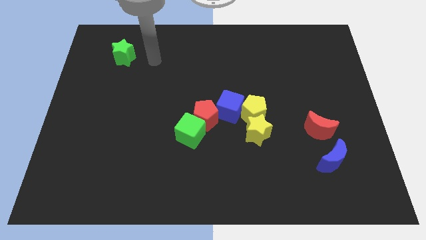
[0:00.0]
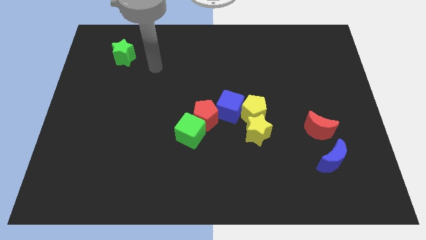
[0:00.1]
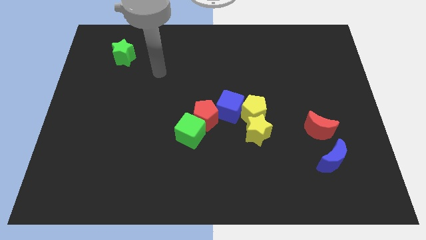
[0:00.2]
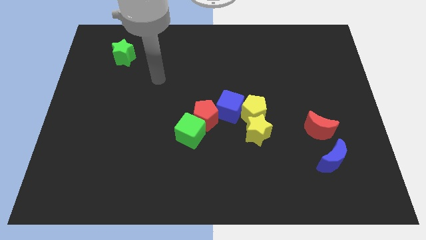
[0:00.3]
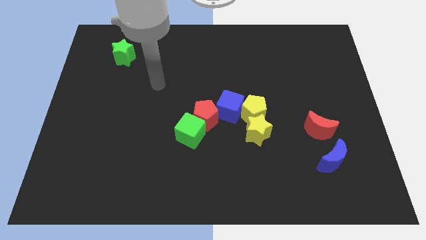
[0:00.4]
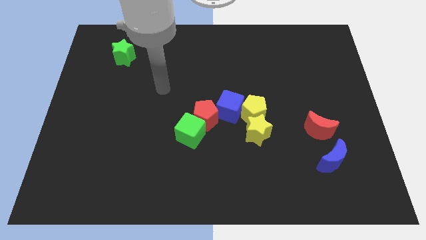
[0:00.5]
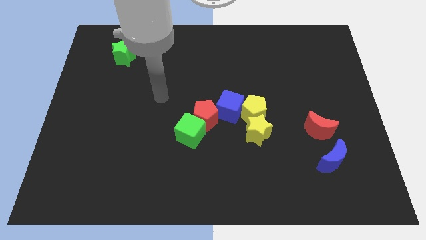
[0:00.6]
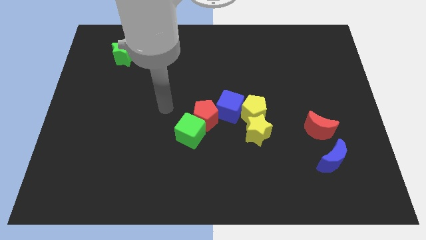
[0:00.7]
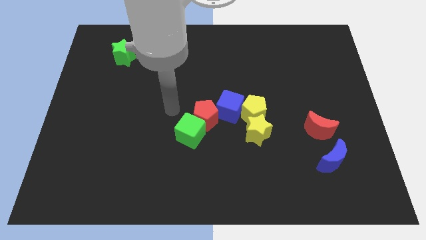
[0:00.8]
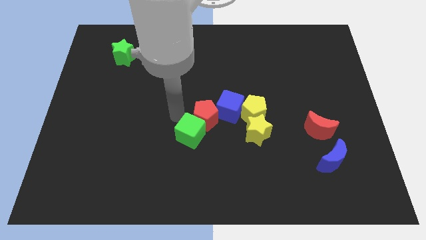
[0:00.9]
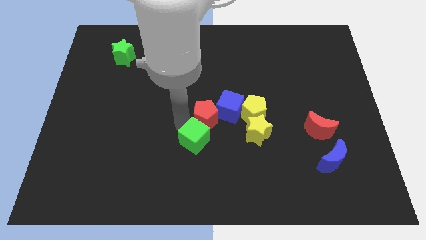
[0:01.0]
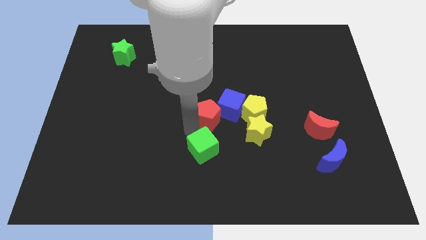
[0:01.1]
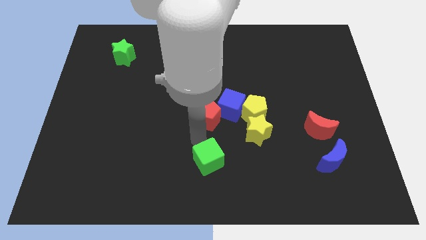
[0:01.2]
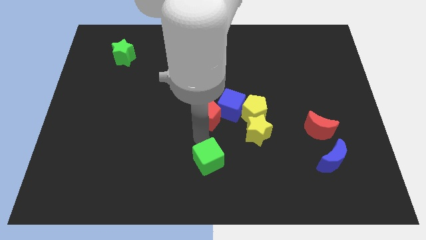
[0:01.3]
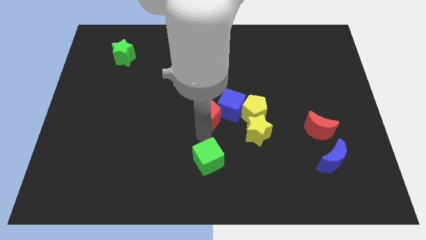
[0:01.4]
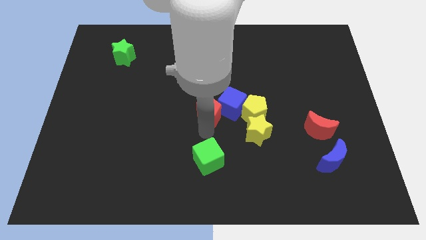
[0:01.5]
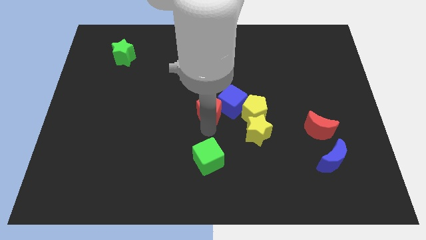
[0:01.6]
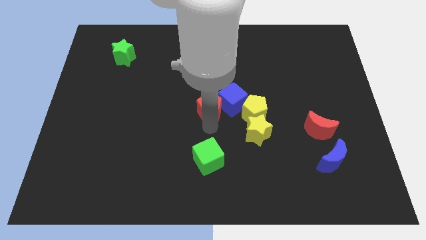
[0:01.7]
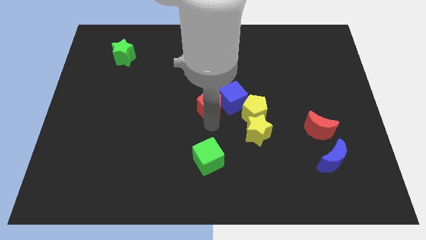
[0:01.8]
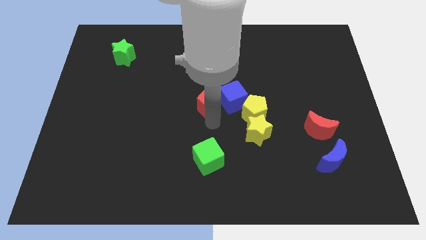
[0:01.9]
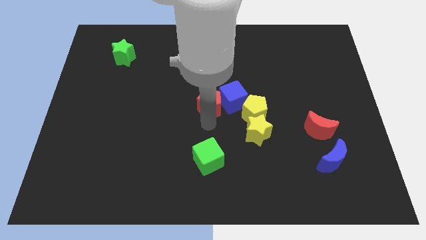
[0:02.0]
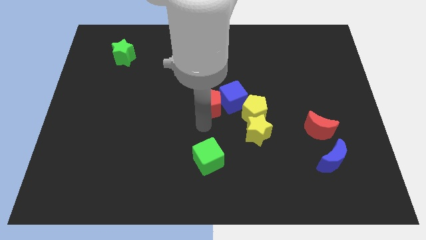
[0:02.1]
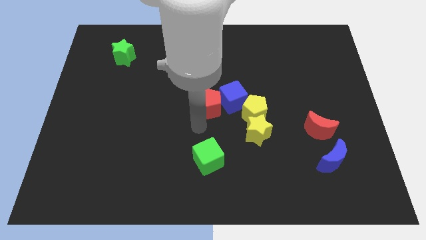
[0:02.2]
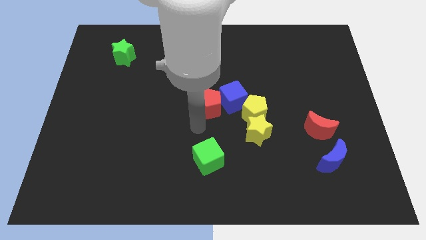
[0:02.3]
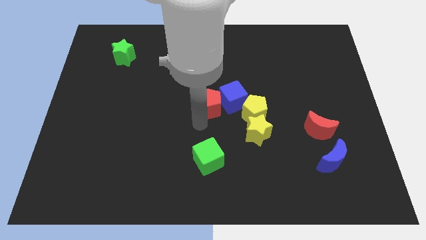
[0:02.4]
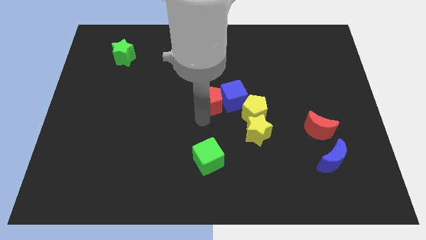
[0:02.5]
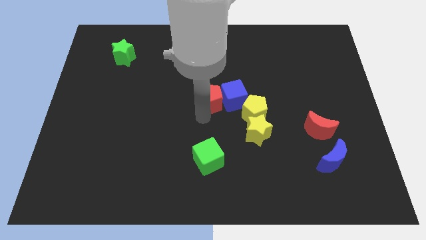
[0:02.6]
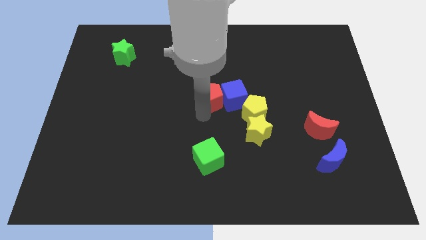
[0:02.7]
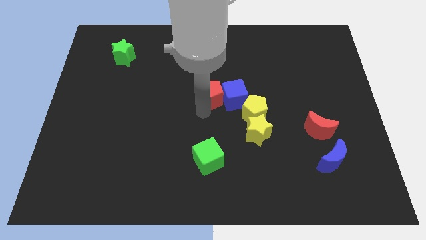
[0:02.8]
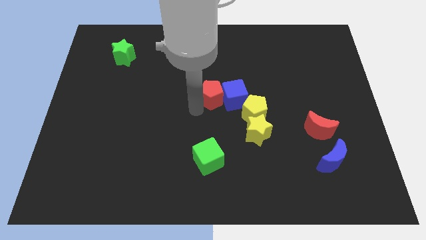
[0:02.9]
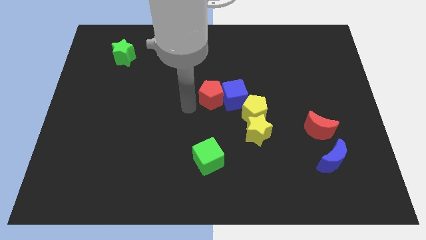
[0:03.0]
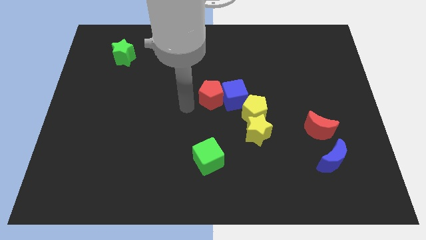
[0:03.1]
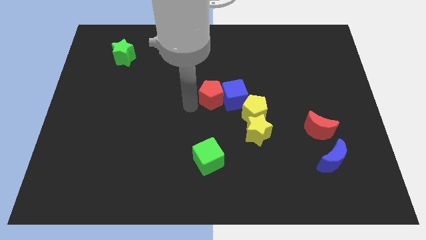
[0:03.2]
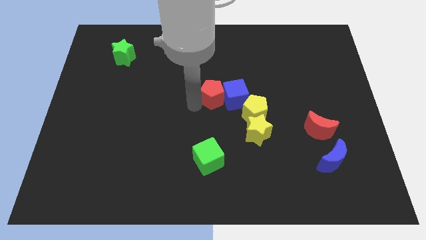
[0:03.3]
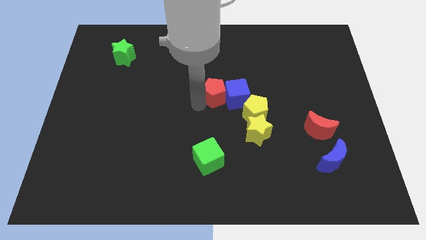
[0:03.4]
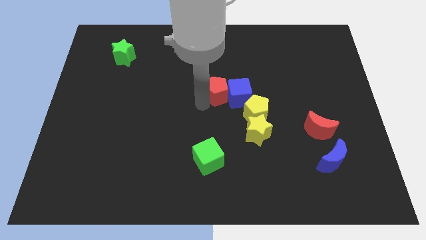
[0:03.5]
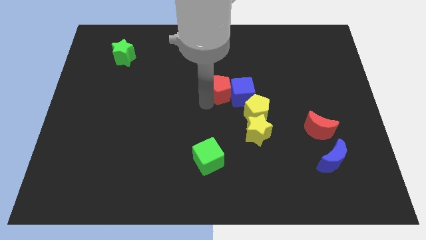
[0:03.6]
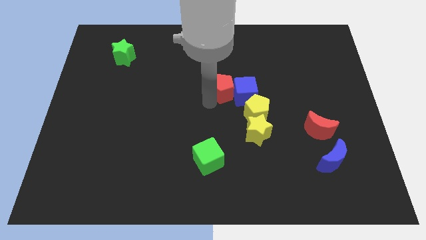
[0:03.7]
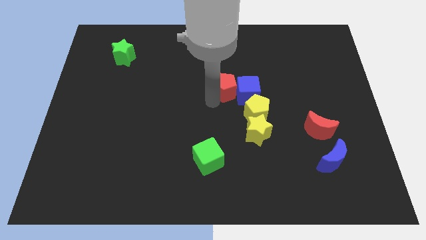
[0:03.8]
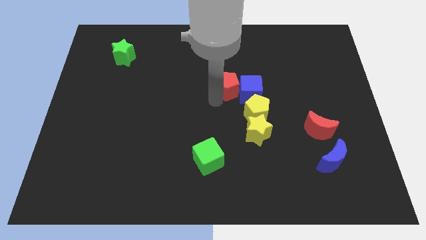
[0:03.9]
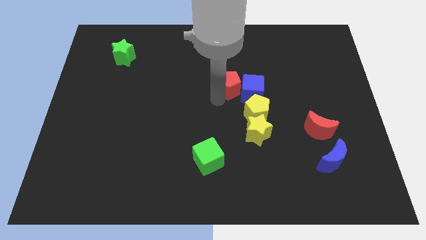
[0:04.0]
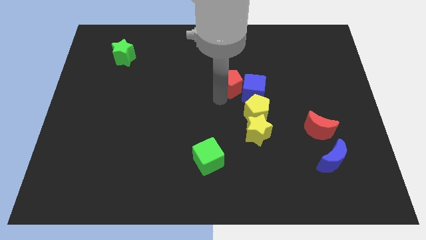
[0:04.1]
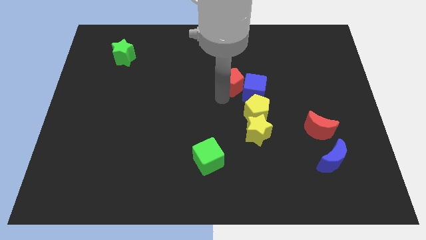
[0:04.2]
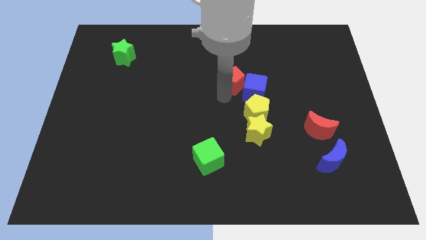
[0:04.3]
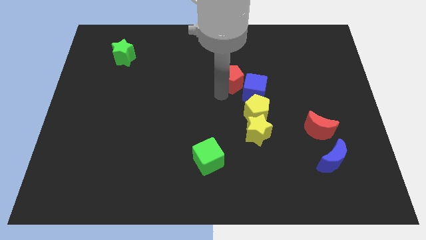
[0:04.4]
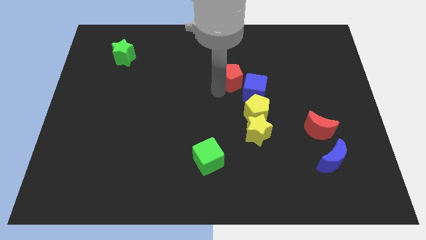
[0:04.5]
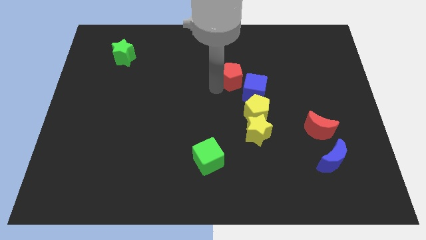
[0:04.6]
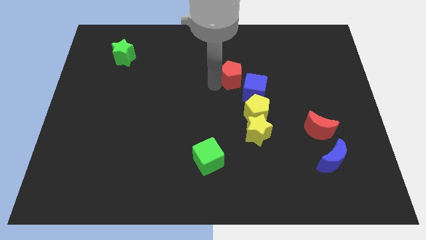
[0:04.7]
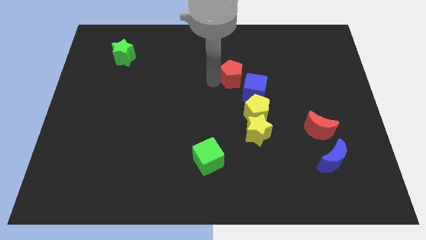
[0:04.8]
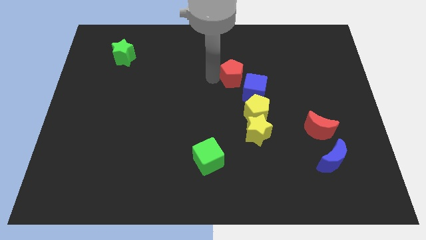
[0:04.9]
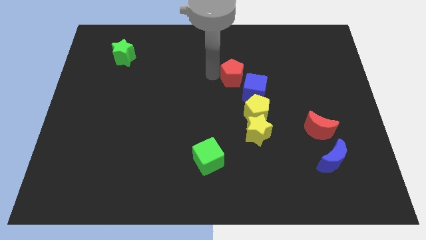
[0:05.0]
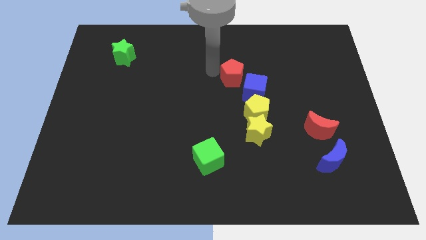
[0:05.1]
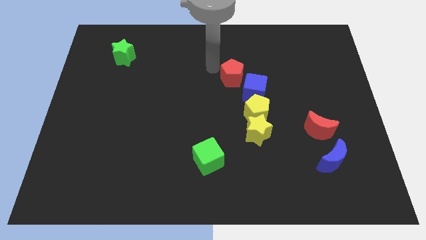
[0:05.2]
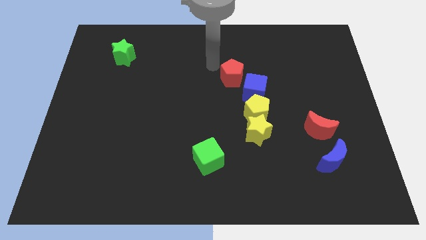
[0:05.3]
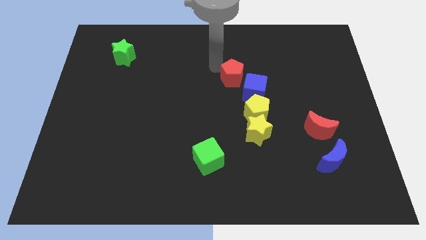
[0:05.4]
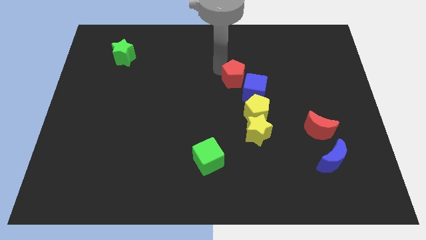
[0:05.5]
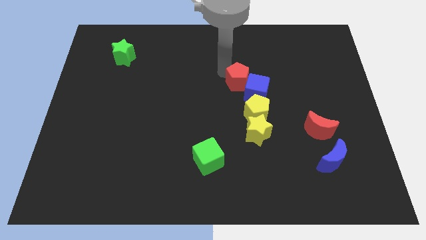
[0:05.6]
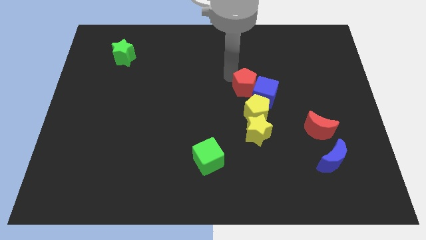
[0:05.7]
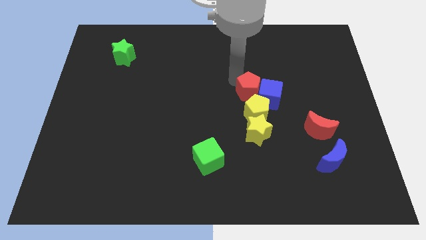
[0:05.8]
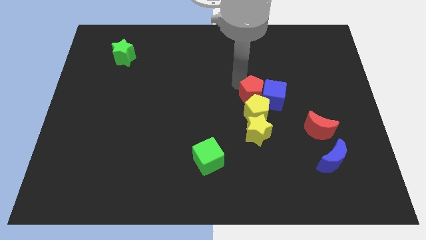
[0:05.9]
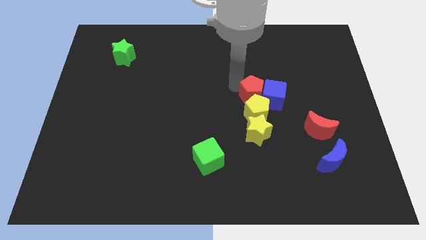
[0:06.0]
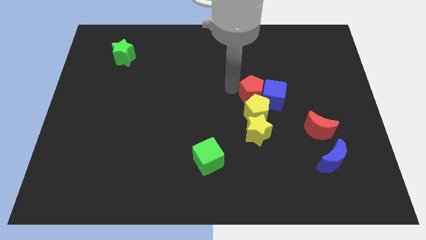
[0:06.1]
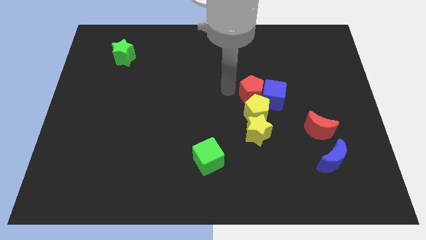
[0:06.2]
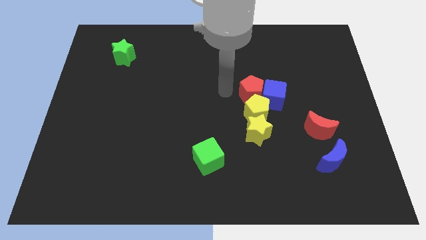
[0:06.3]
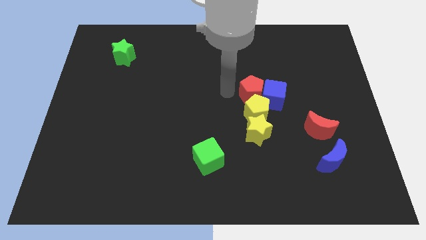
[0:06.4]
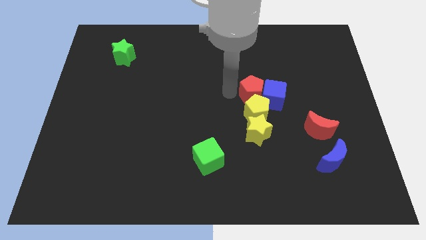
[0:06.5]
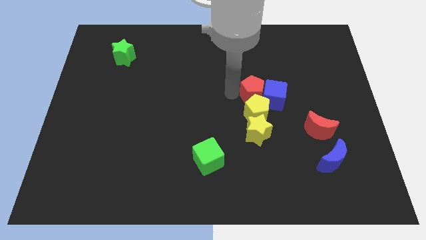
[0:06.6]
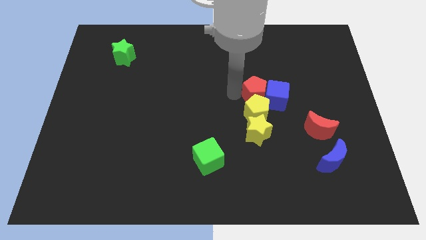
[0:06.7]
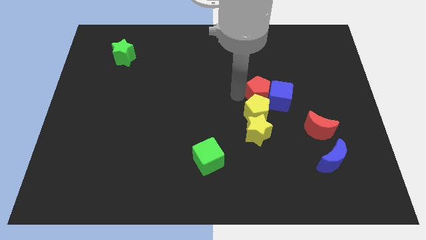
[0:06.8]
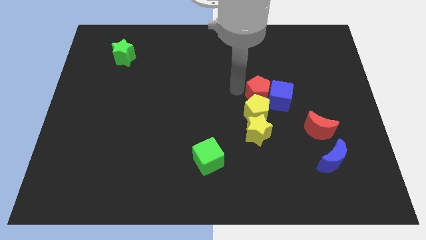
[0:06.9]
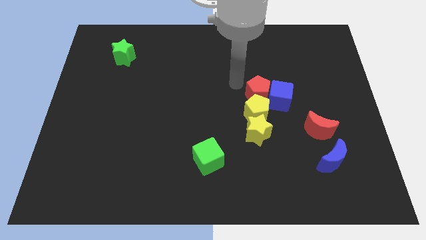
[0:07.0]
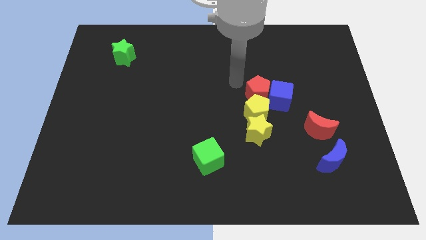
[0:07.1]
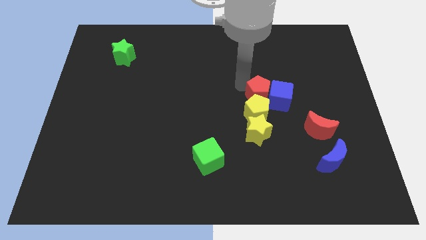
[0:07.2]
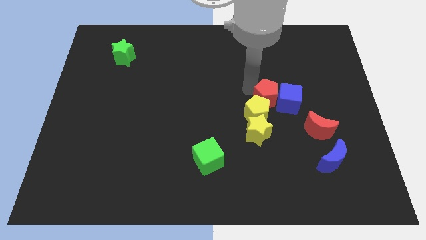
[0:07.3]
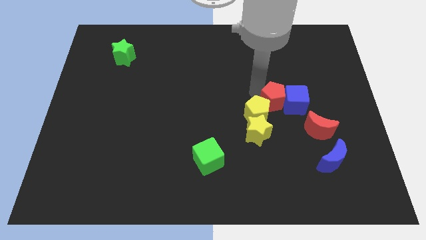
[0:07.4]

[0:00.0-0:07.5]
put the red pentagon to the top left of the red moon

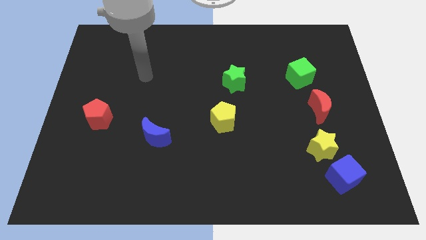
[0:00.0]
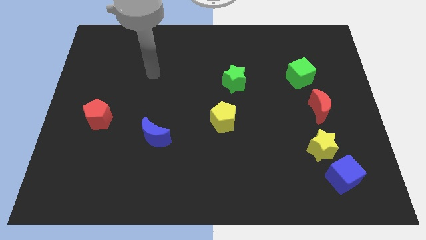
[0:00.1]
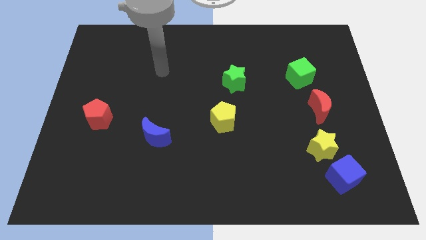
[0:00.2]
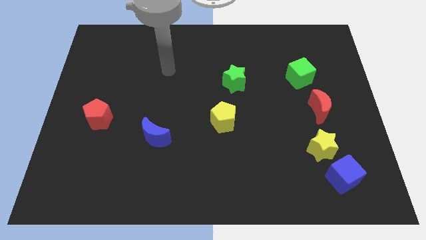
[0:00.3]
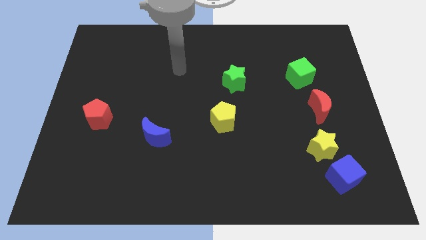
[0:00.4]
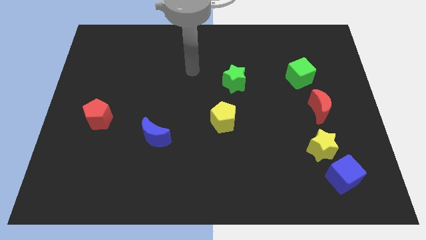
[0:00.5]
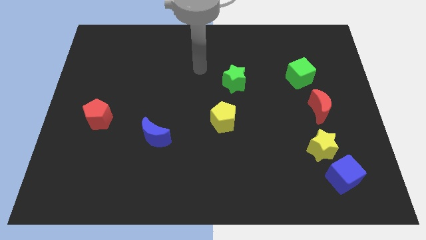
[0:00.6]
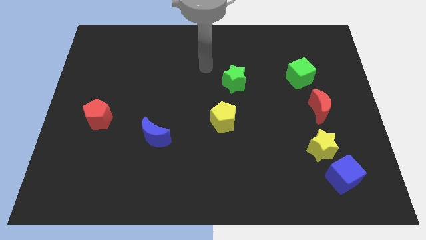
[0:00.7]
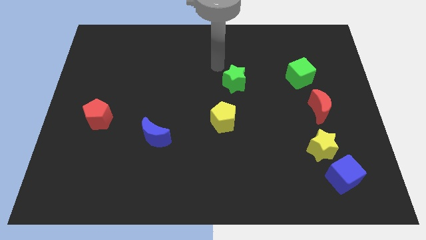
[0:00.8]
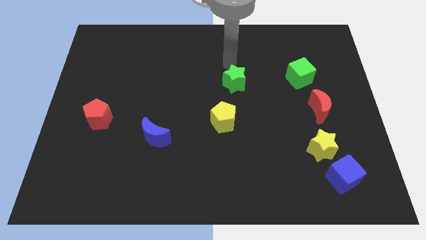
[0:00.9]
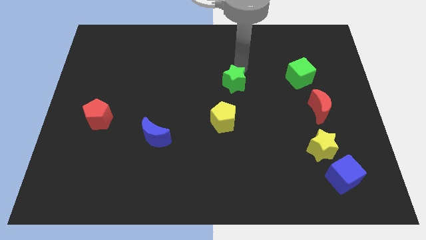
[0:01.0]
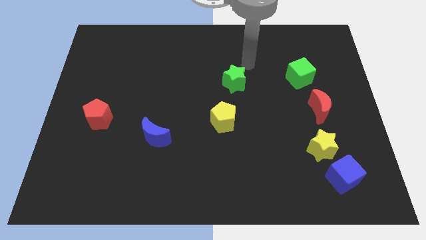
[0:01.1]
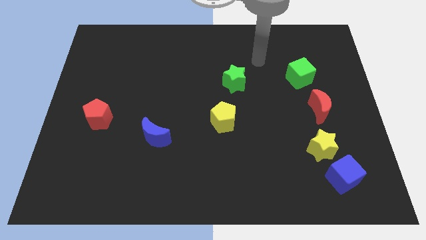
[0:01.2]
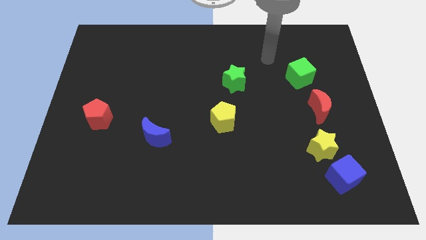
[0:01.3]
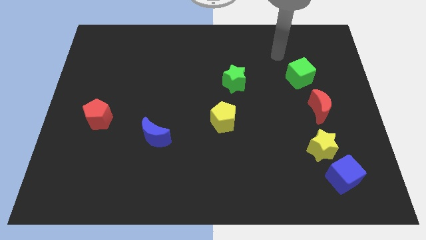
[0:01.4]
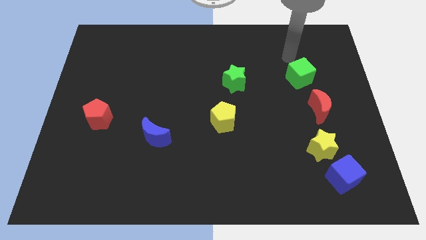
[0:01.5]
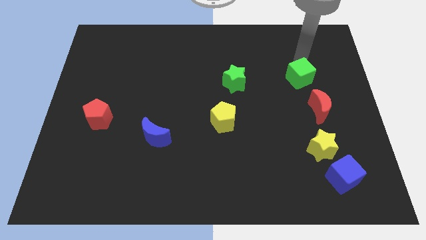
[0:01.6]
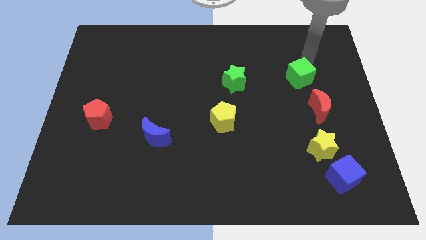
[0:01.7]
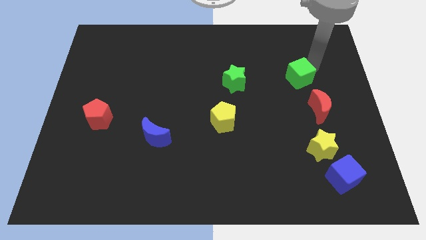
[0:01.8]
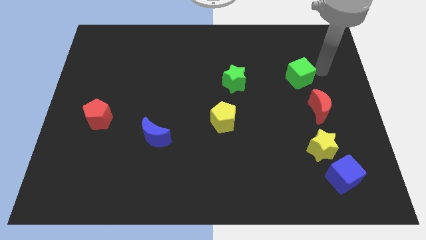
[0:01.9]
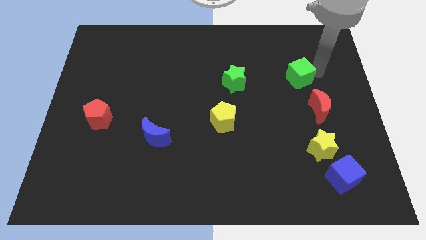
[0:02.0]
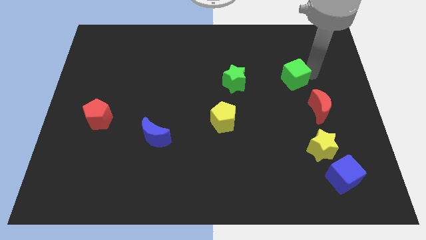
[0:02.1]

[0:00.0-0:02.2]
slide the green cube just right of the green star
